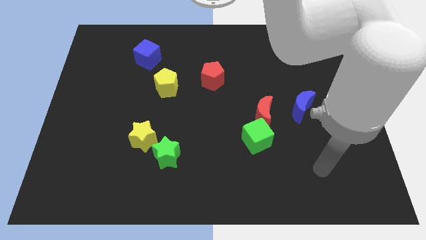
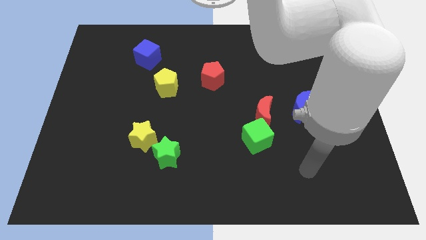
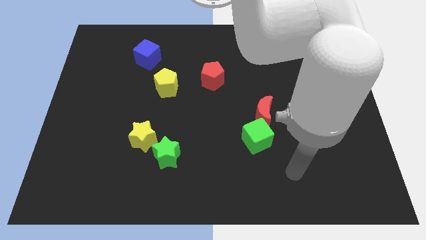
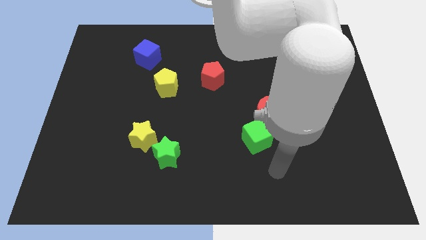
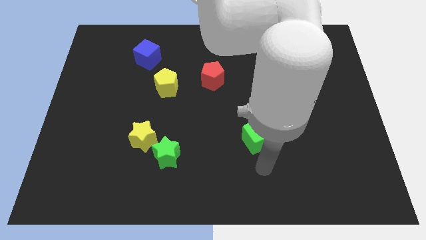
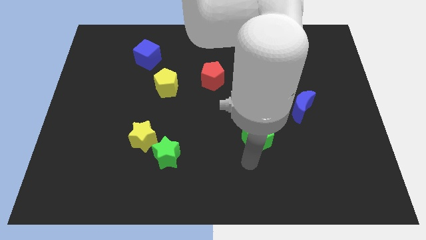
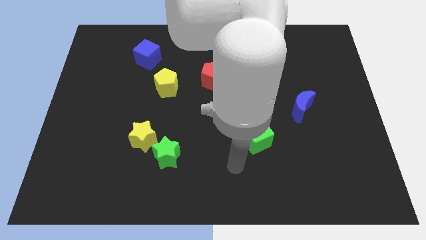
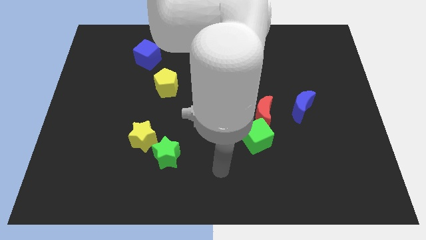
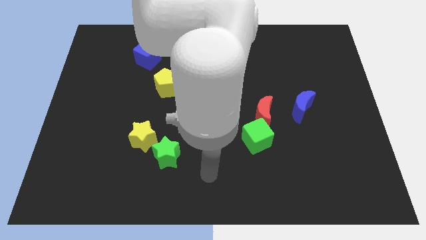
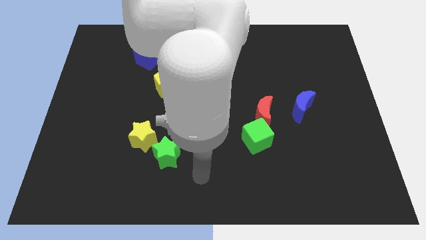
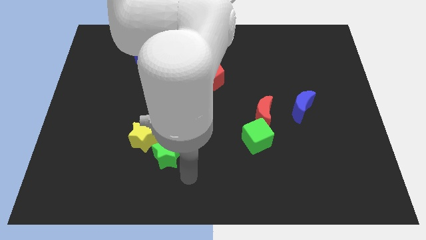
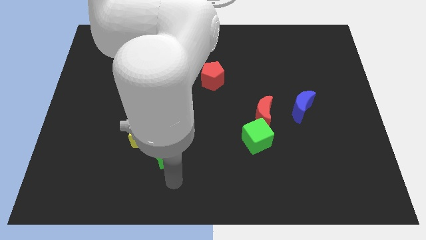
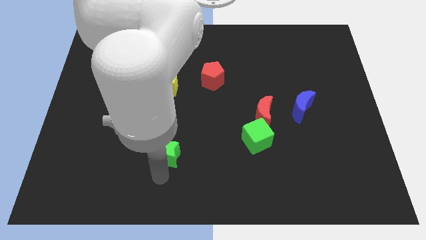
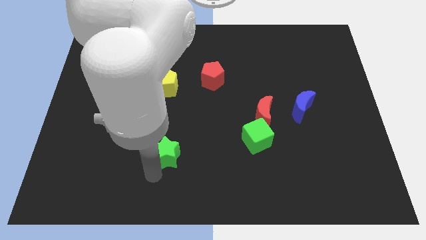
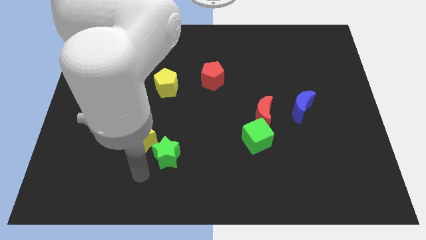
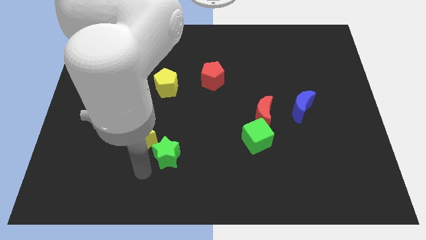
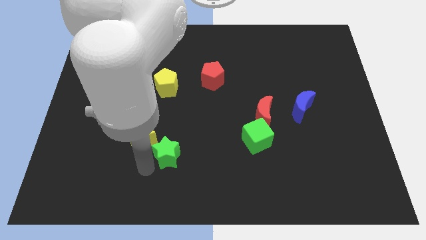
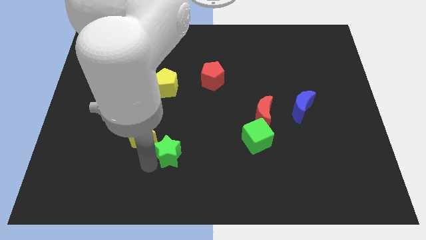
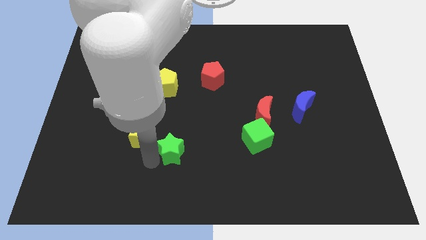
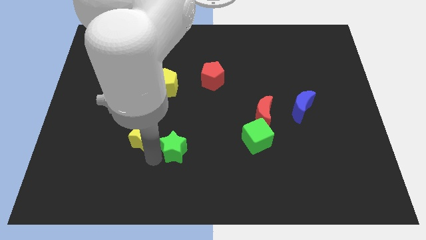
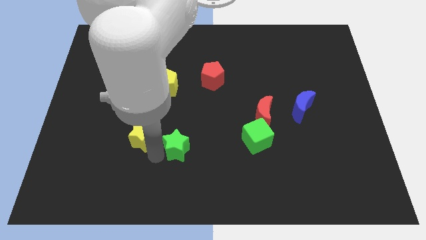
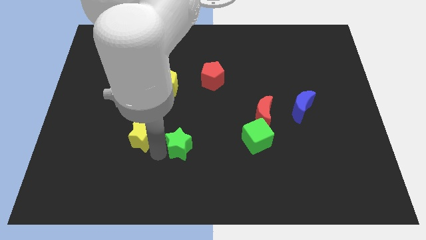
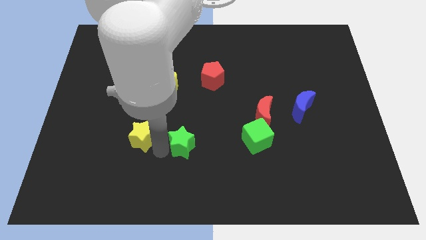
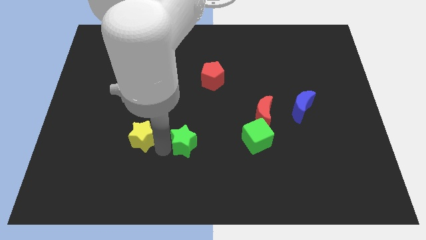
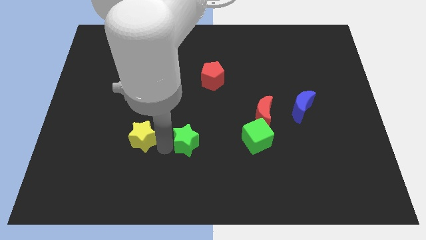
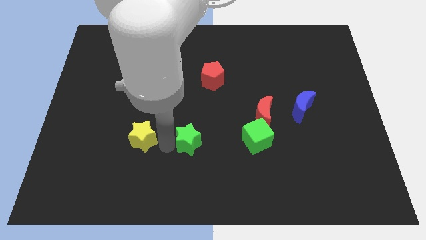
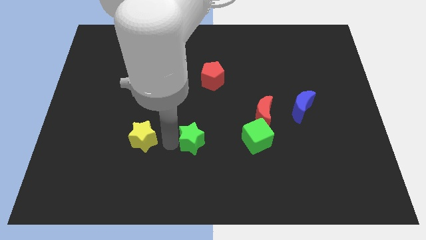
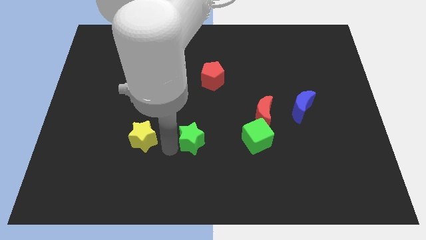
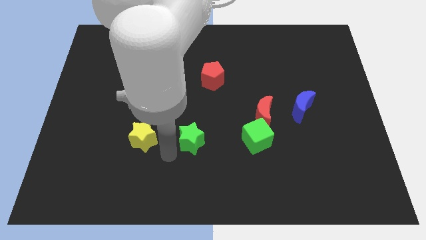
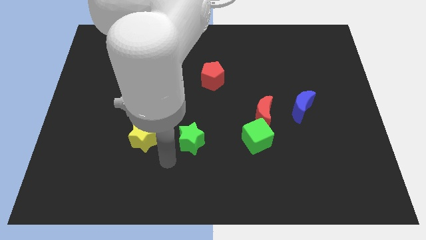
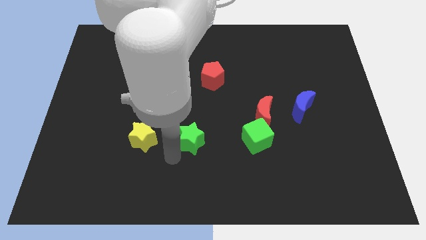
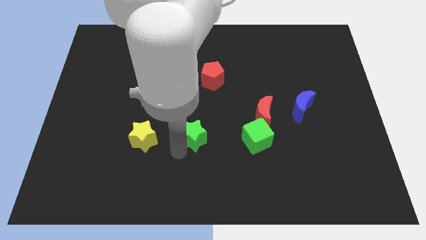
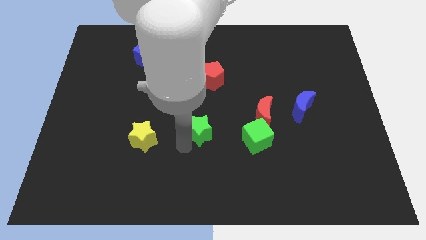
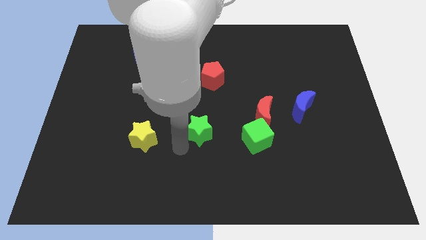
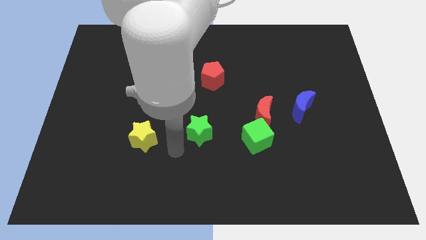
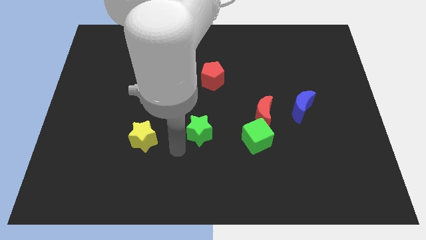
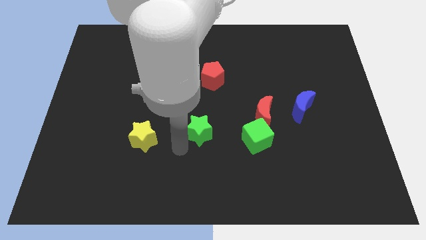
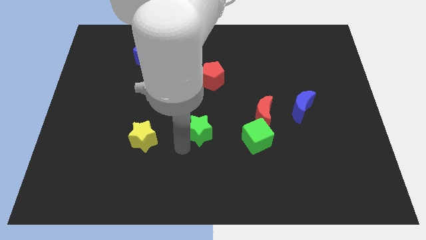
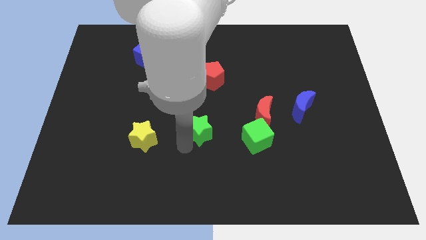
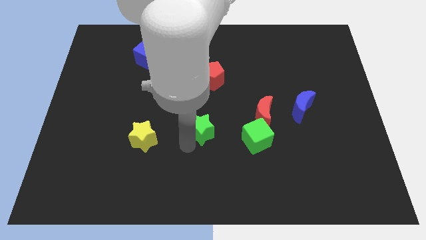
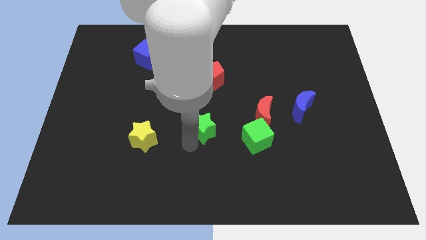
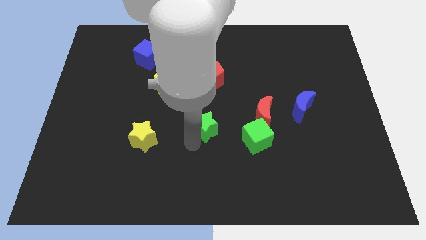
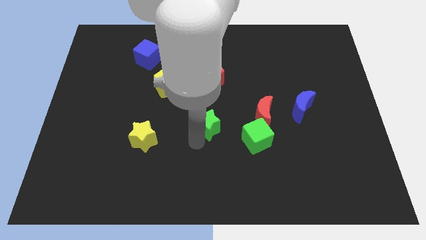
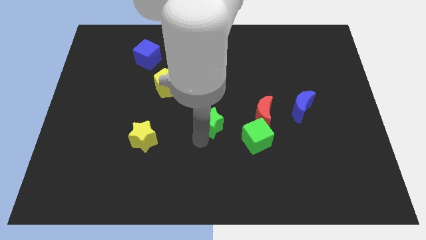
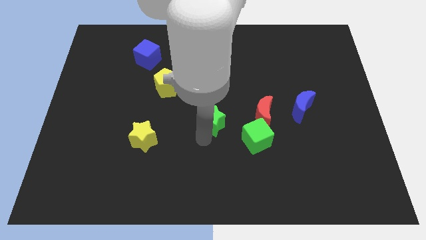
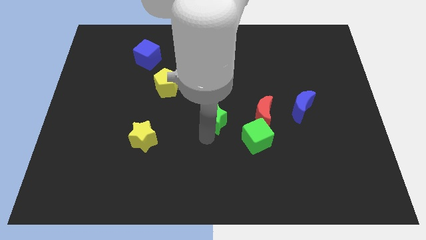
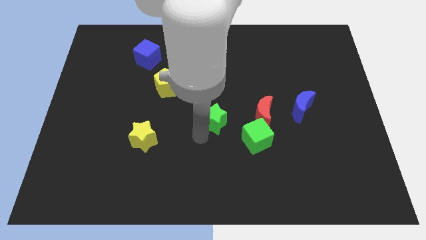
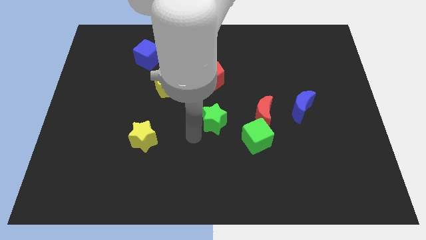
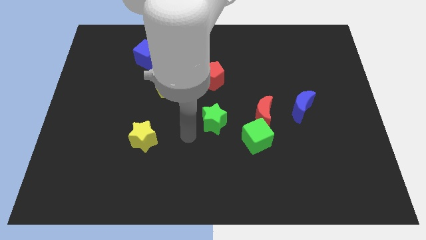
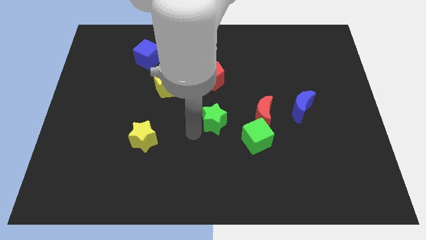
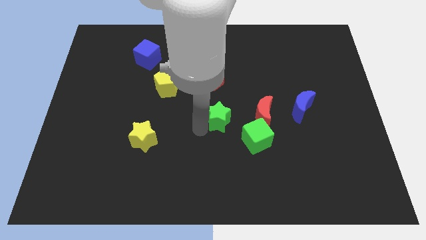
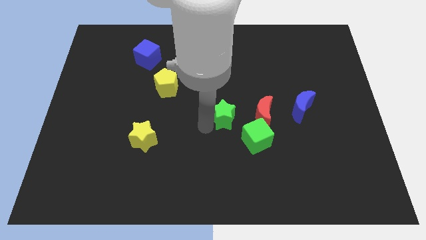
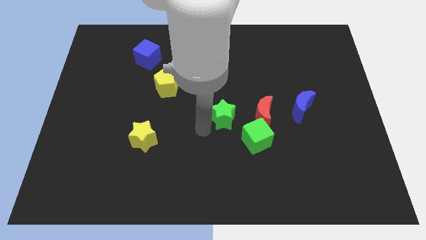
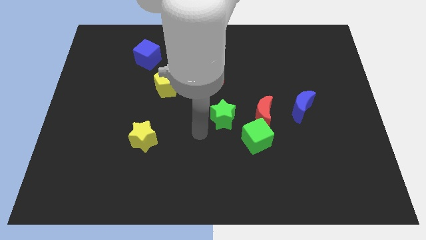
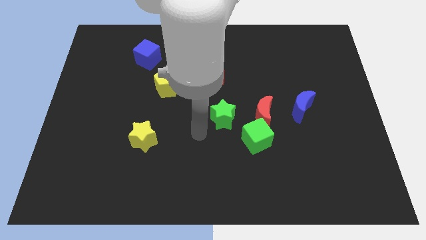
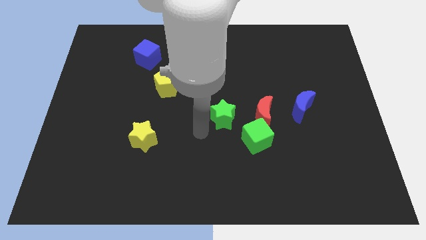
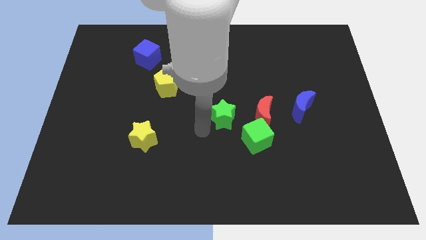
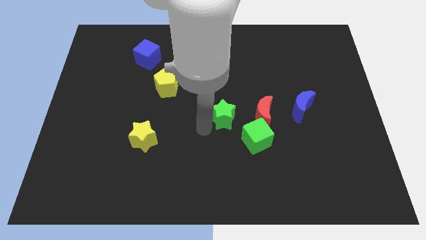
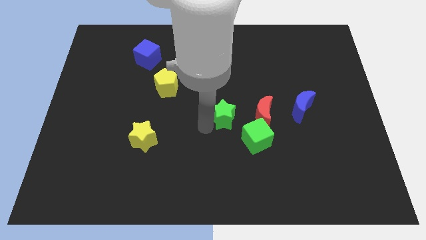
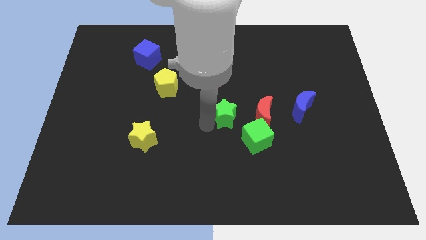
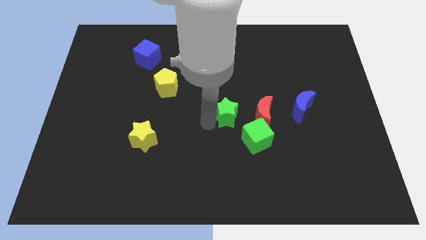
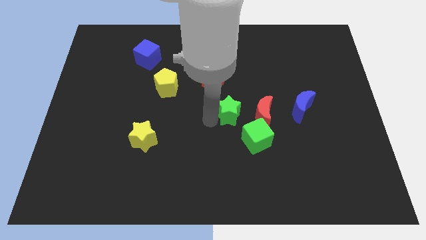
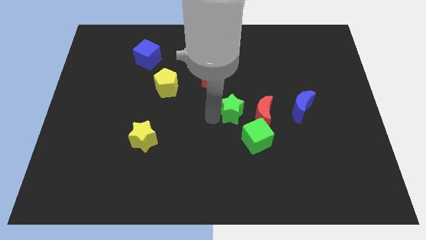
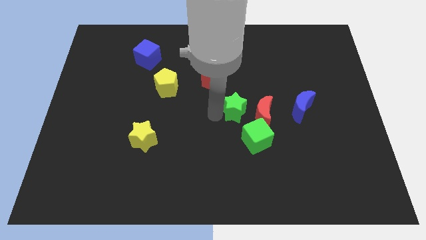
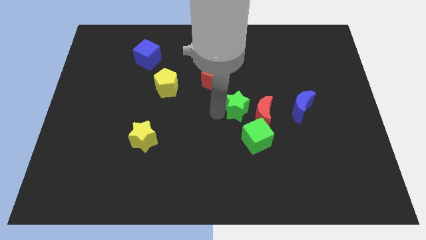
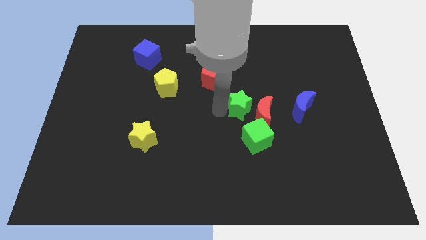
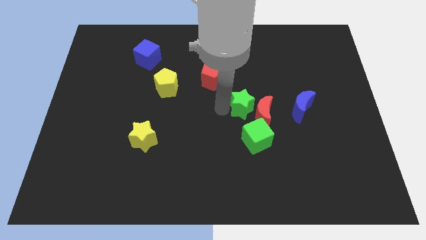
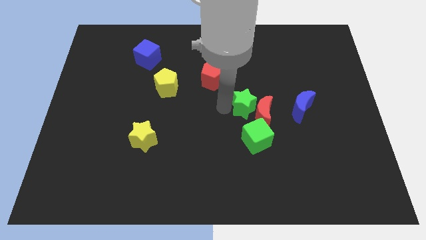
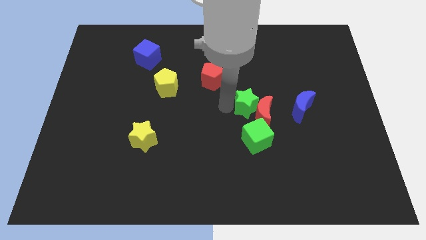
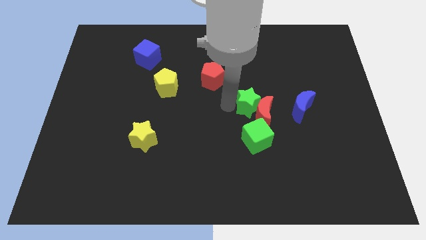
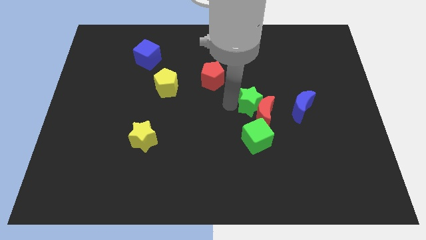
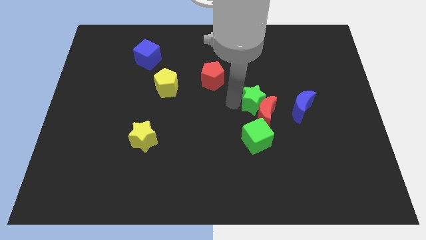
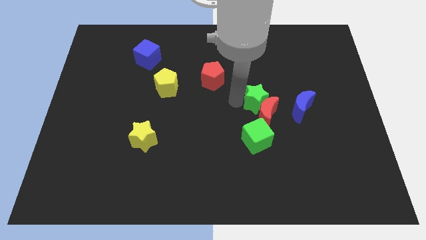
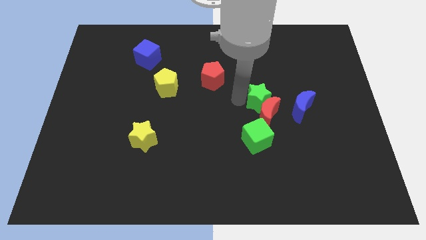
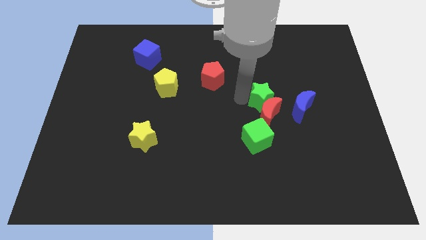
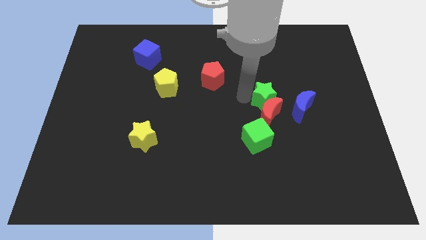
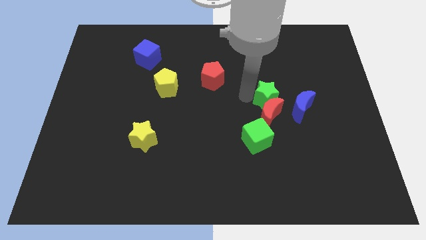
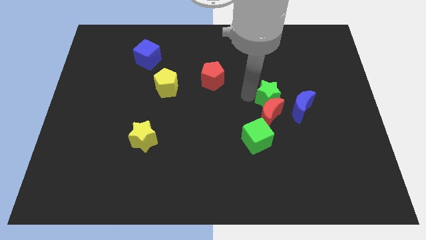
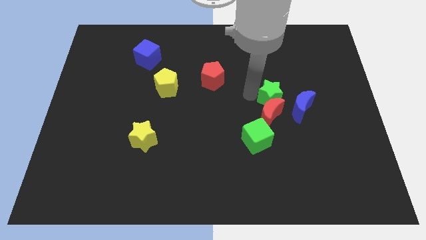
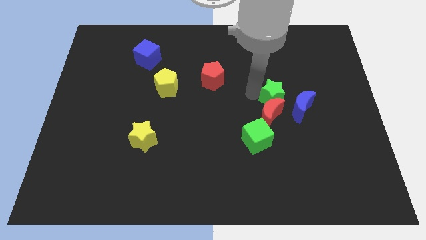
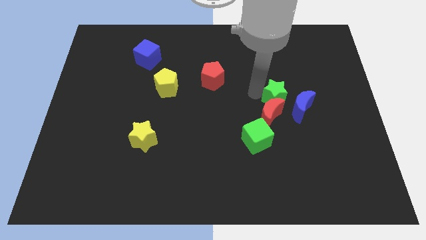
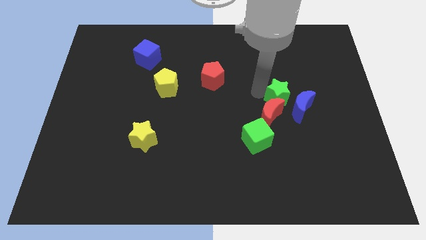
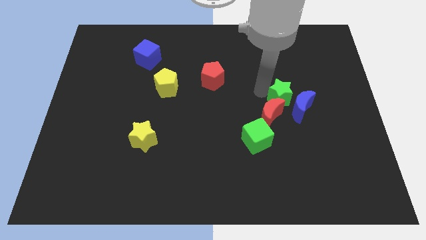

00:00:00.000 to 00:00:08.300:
move the green star next to the blue moon
